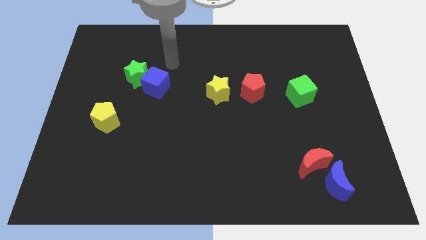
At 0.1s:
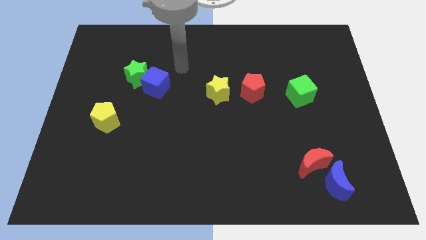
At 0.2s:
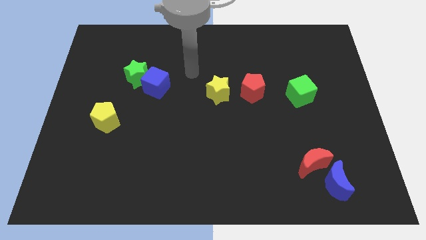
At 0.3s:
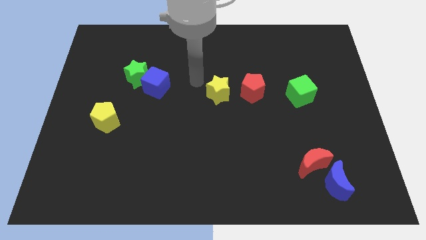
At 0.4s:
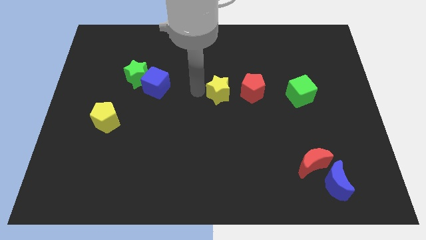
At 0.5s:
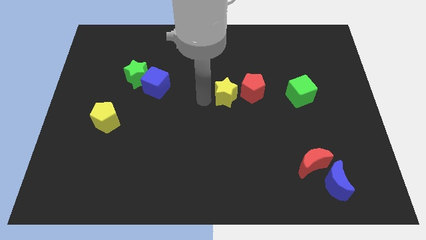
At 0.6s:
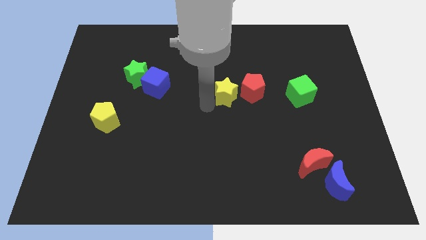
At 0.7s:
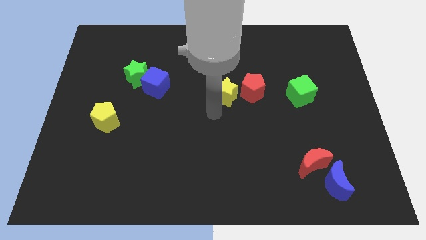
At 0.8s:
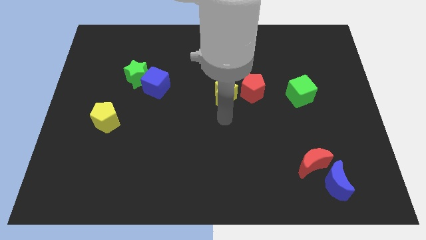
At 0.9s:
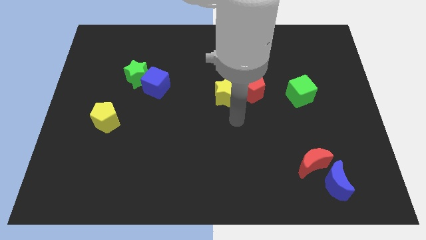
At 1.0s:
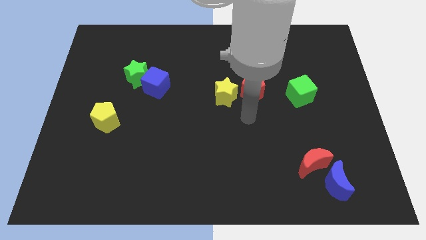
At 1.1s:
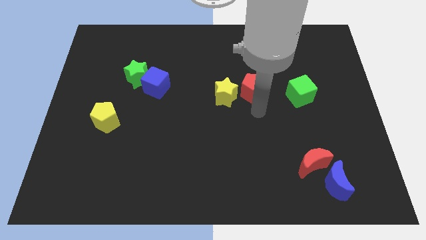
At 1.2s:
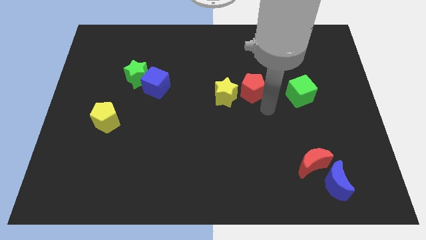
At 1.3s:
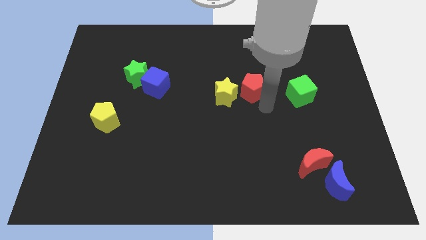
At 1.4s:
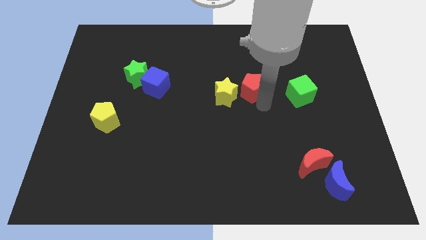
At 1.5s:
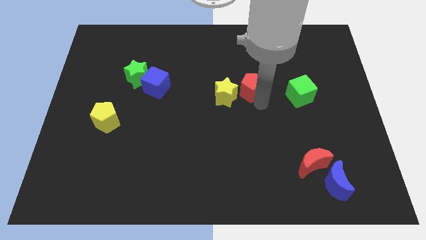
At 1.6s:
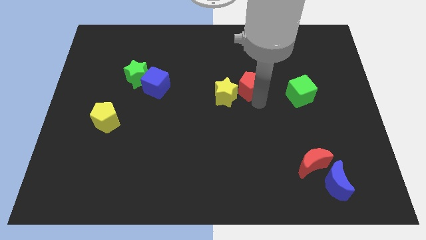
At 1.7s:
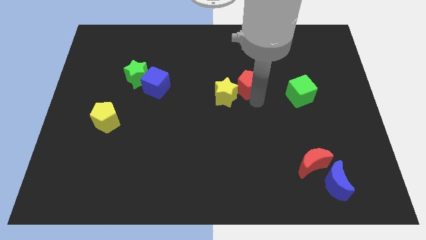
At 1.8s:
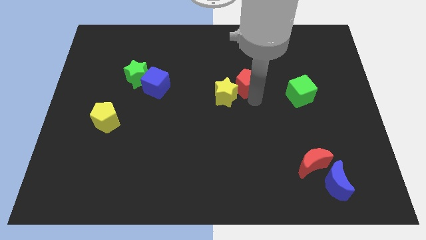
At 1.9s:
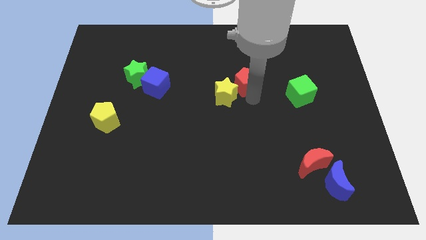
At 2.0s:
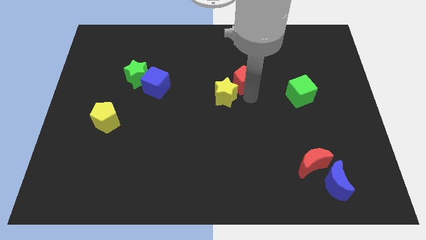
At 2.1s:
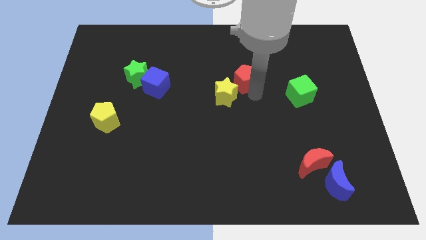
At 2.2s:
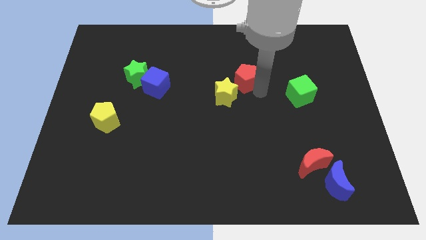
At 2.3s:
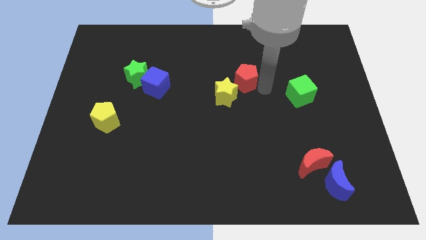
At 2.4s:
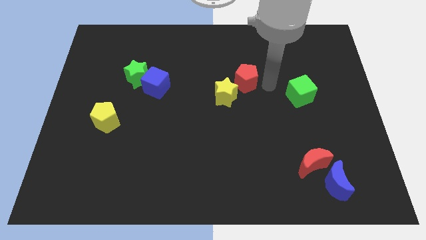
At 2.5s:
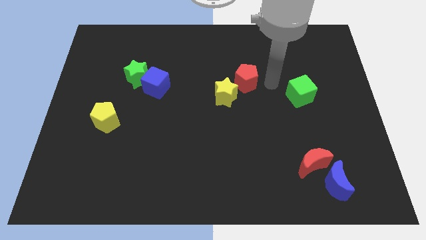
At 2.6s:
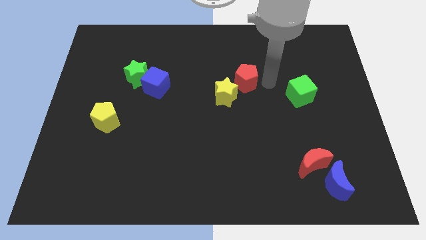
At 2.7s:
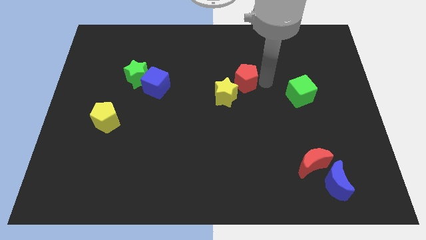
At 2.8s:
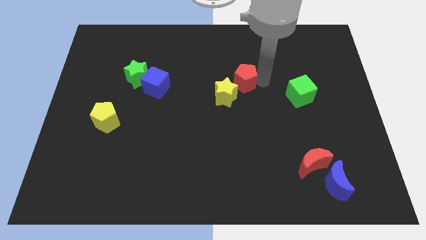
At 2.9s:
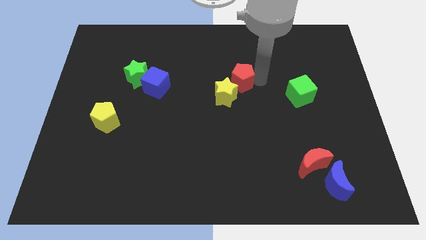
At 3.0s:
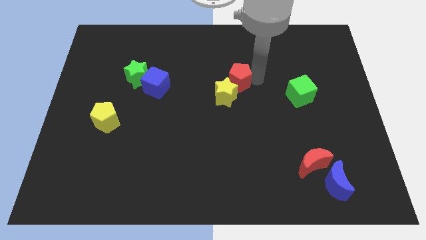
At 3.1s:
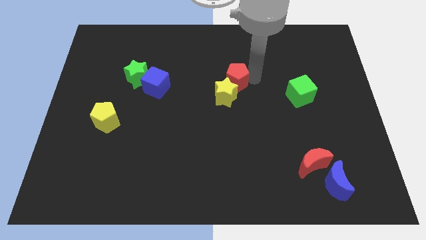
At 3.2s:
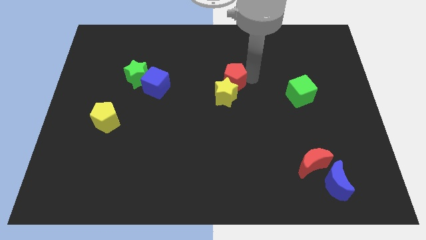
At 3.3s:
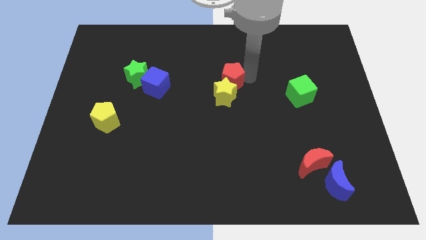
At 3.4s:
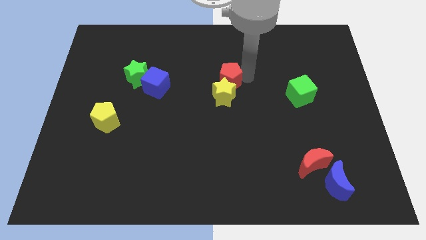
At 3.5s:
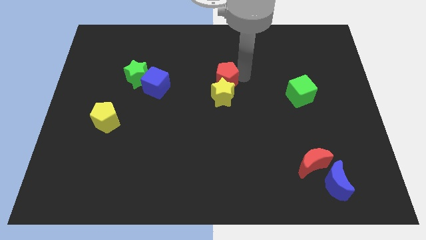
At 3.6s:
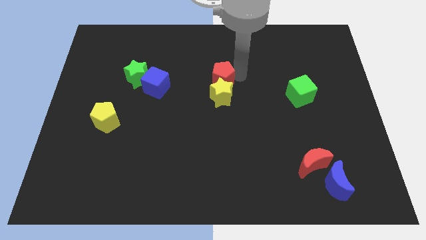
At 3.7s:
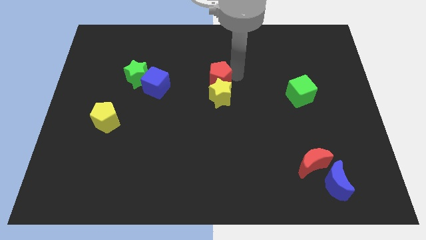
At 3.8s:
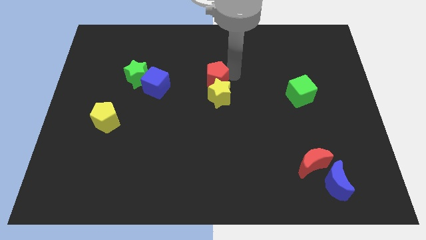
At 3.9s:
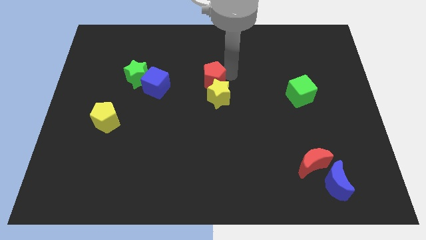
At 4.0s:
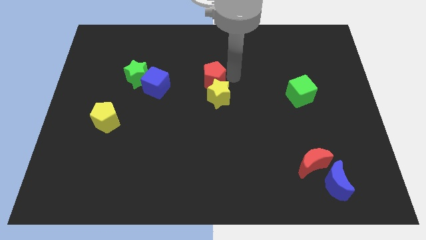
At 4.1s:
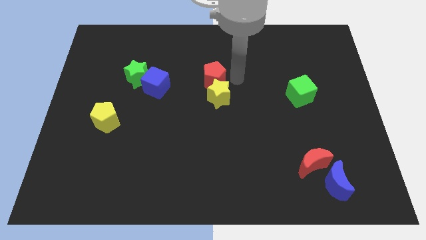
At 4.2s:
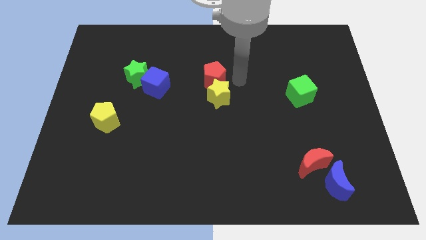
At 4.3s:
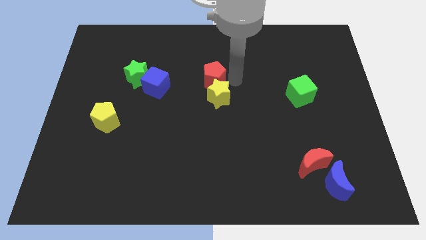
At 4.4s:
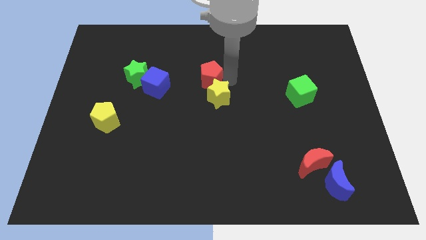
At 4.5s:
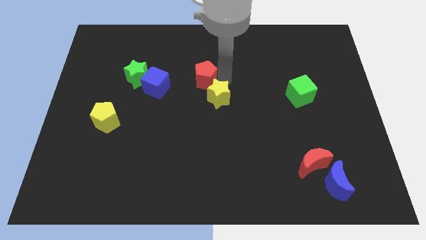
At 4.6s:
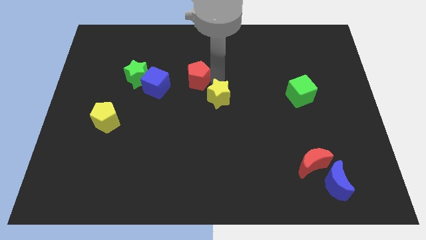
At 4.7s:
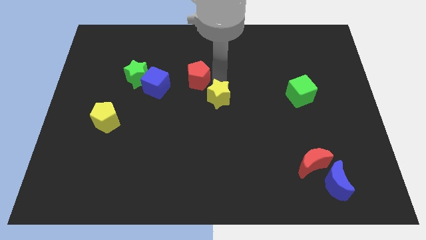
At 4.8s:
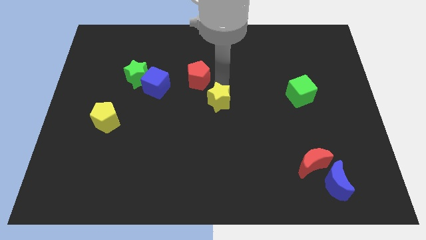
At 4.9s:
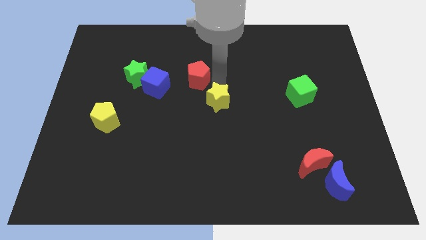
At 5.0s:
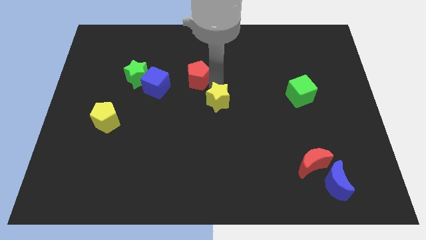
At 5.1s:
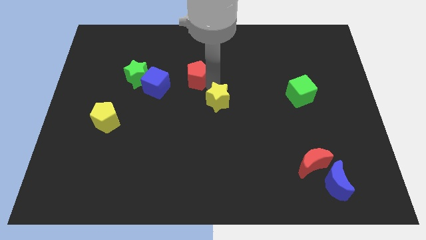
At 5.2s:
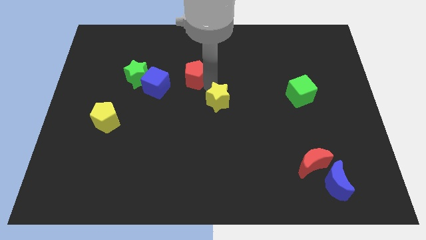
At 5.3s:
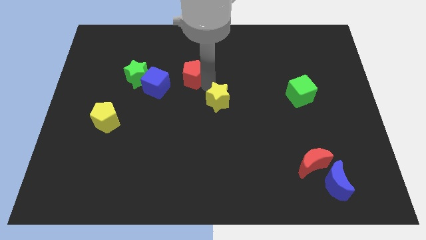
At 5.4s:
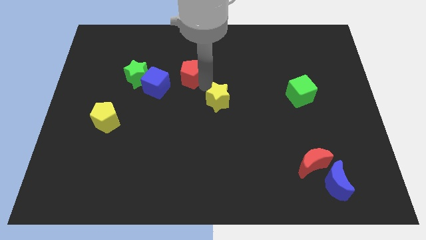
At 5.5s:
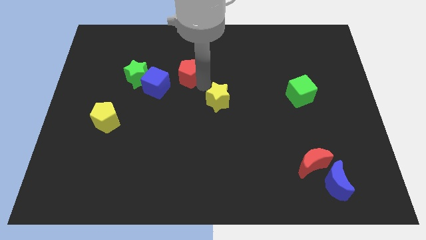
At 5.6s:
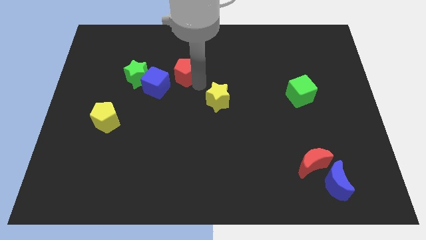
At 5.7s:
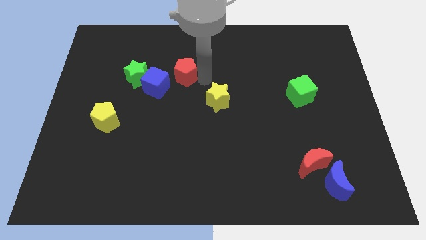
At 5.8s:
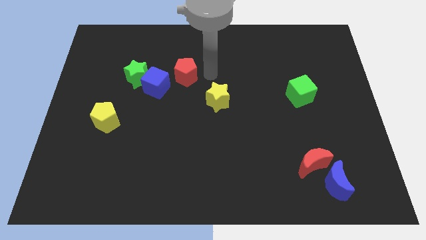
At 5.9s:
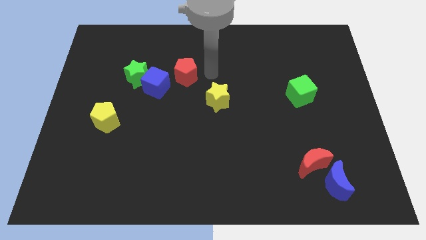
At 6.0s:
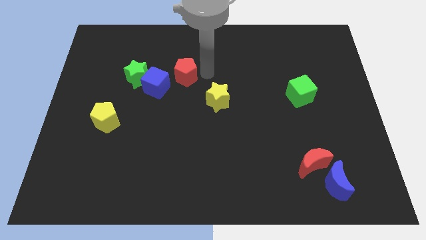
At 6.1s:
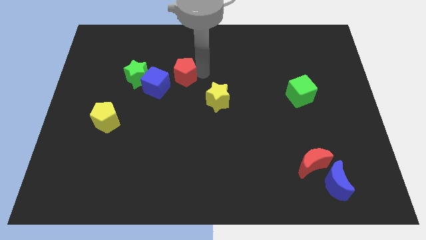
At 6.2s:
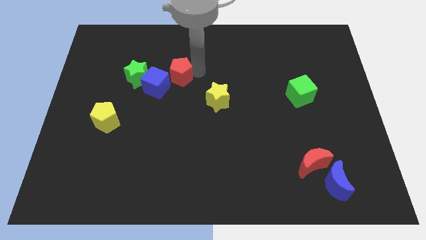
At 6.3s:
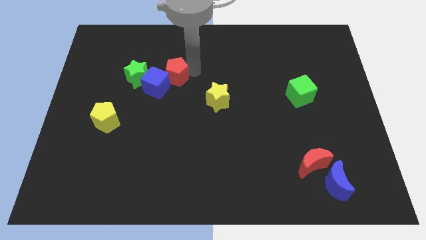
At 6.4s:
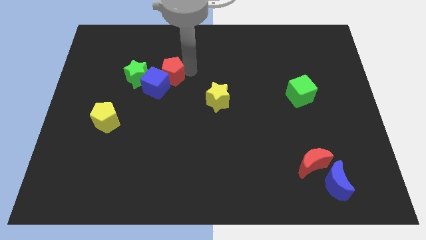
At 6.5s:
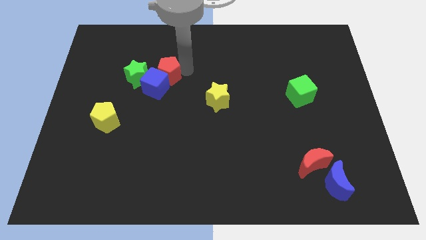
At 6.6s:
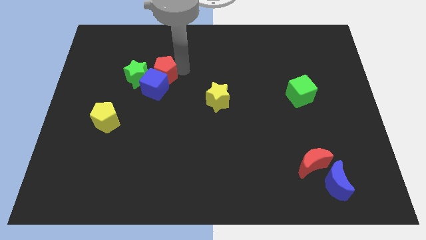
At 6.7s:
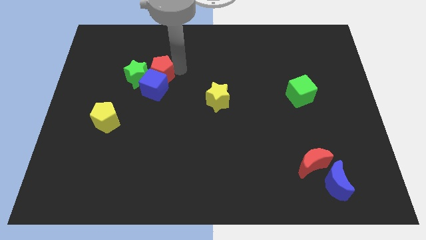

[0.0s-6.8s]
push the red pentagon towards the green star
